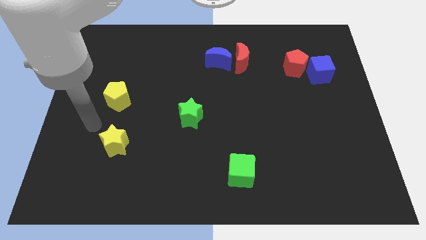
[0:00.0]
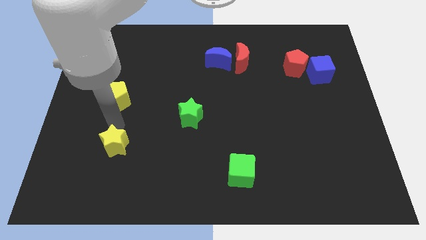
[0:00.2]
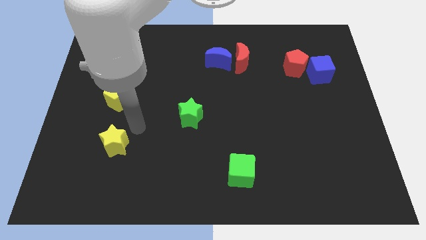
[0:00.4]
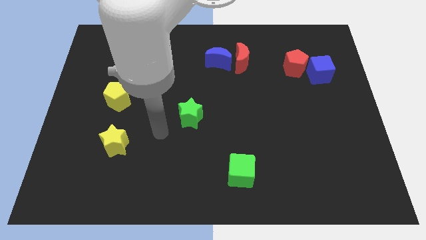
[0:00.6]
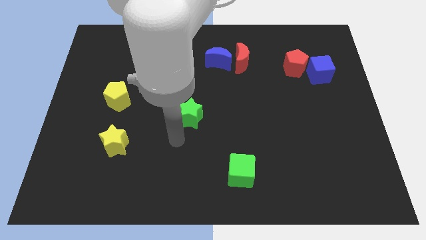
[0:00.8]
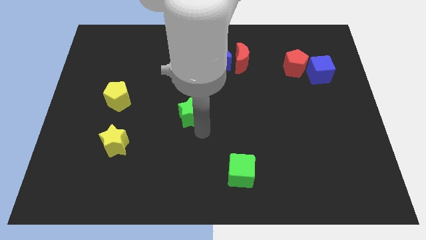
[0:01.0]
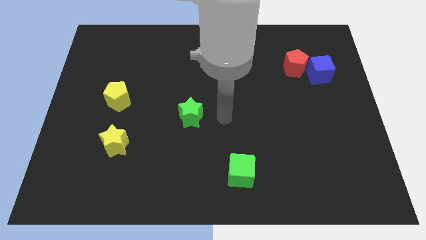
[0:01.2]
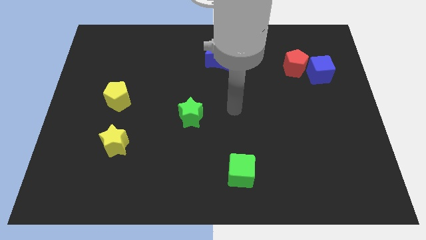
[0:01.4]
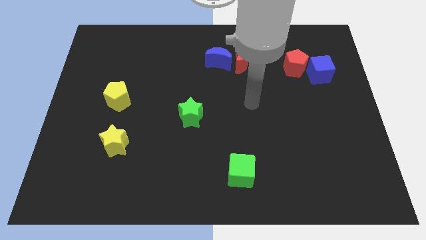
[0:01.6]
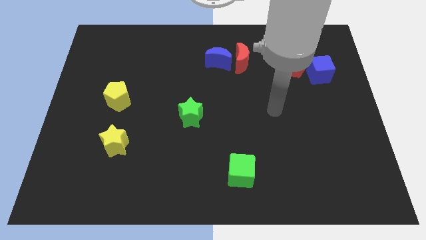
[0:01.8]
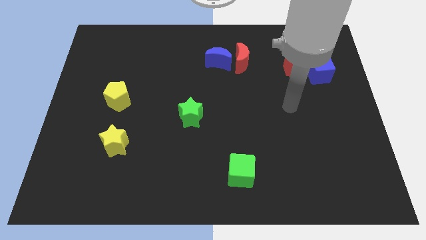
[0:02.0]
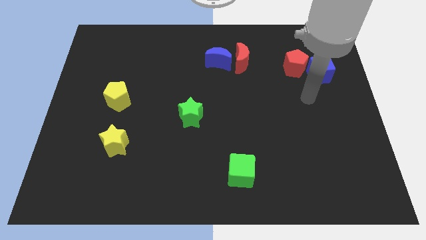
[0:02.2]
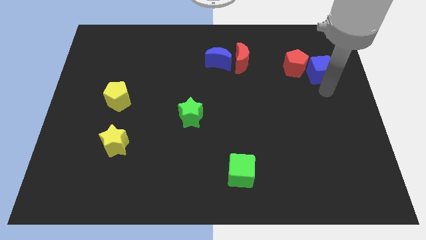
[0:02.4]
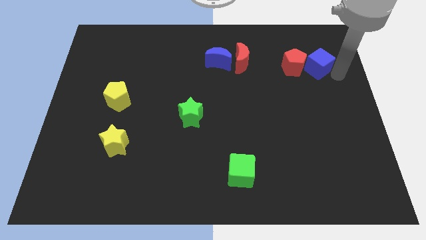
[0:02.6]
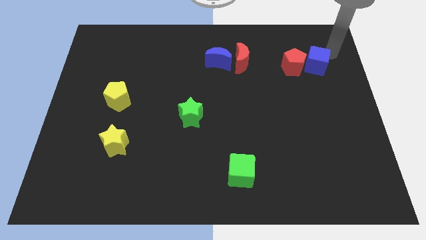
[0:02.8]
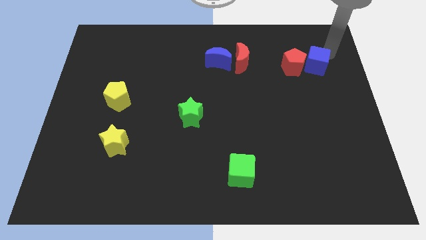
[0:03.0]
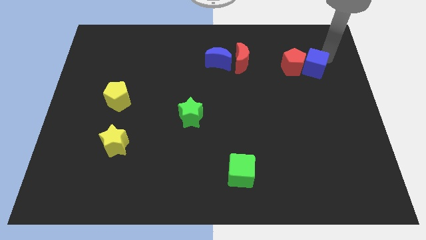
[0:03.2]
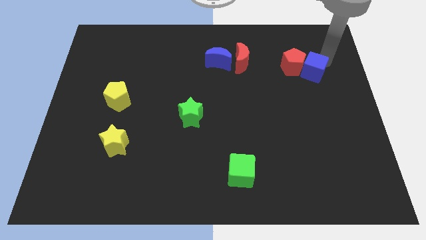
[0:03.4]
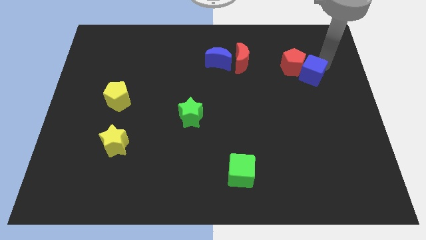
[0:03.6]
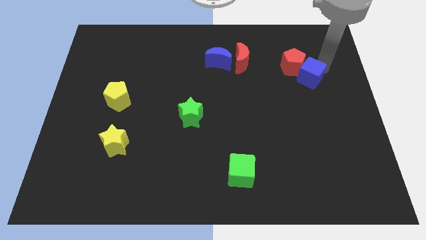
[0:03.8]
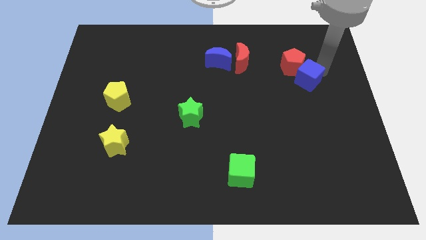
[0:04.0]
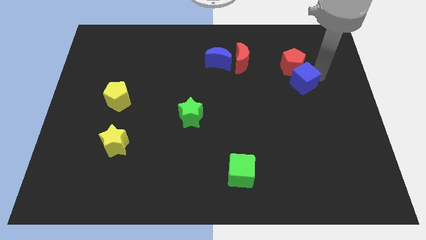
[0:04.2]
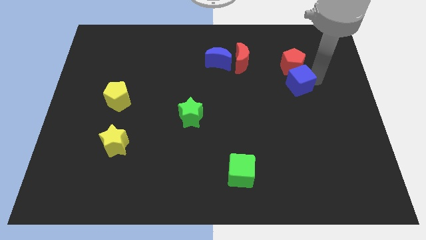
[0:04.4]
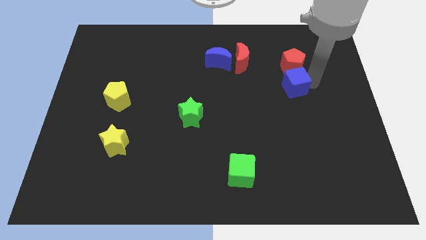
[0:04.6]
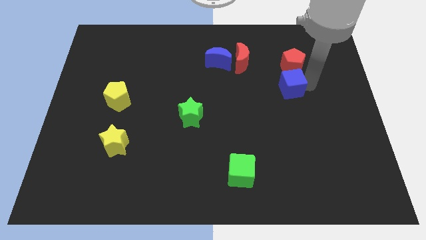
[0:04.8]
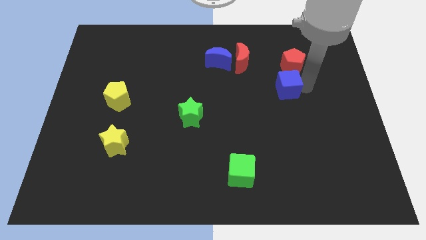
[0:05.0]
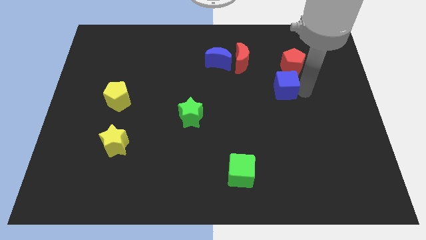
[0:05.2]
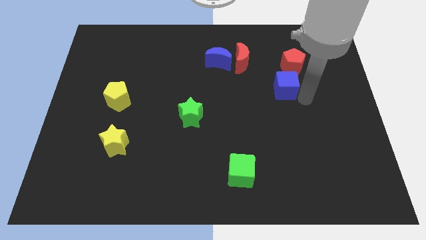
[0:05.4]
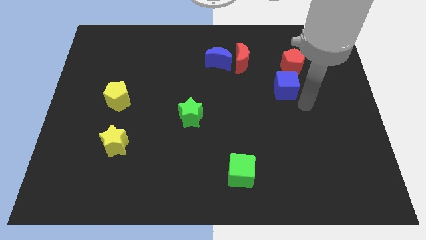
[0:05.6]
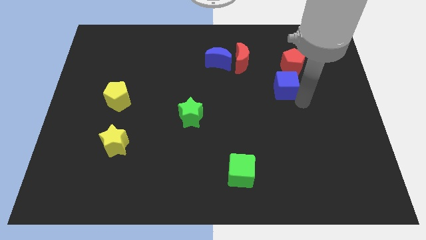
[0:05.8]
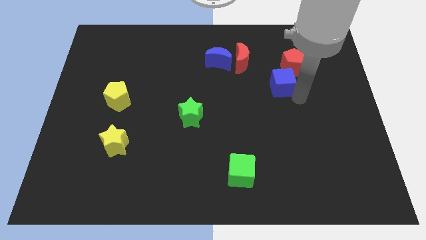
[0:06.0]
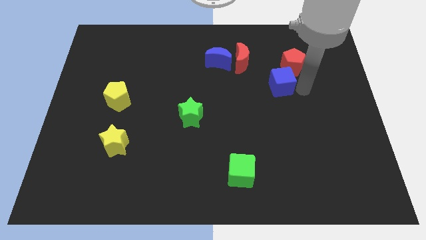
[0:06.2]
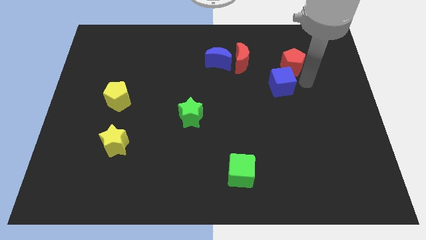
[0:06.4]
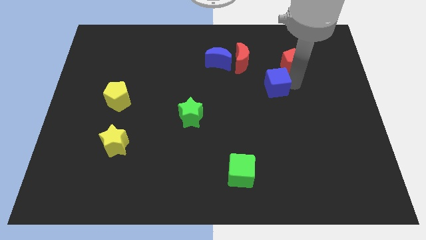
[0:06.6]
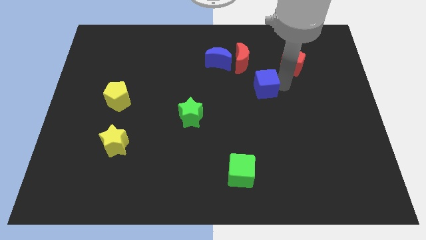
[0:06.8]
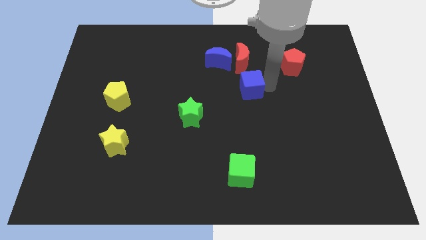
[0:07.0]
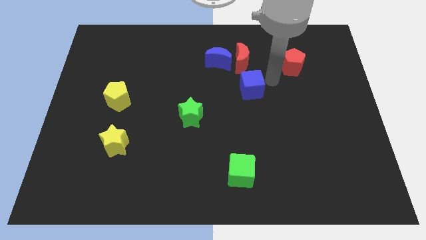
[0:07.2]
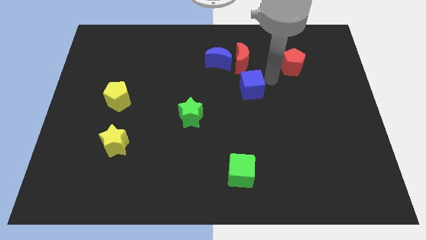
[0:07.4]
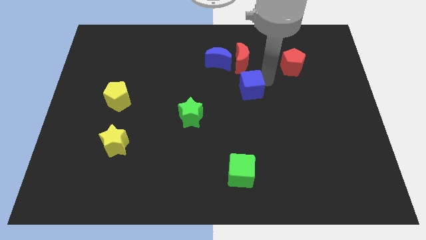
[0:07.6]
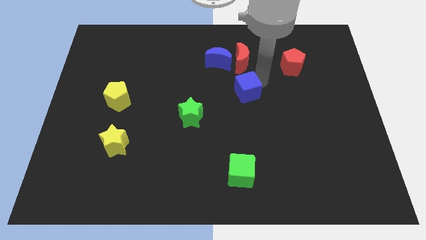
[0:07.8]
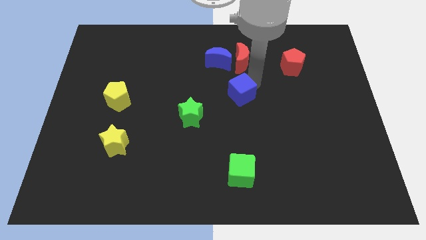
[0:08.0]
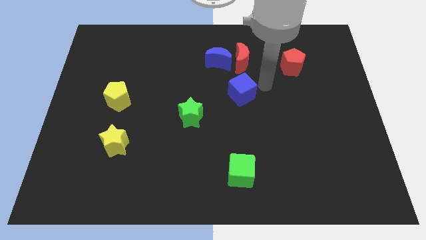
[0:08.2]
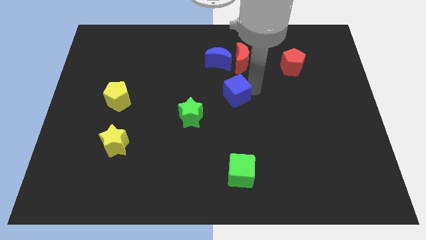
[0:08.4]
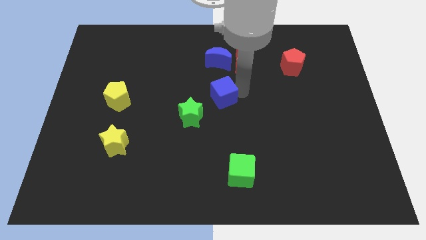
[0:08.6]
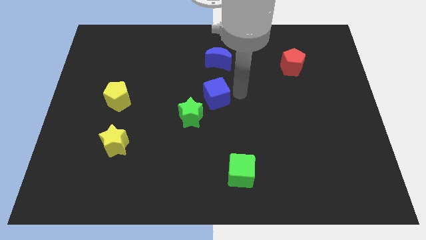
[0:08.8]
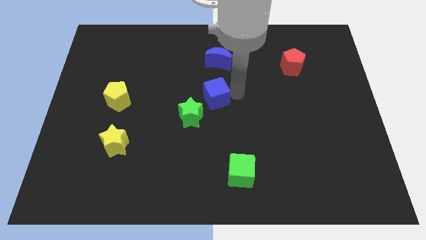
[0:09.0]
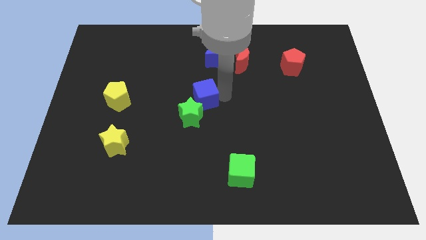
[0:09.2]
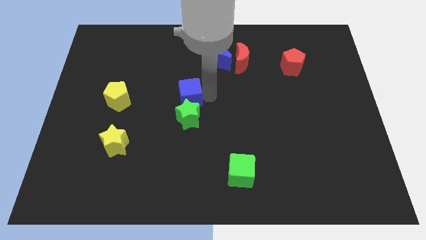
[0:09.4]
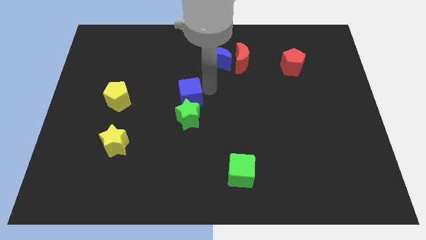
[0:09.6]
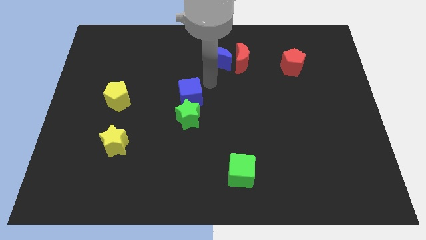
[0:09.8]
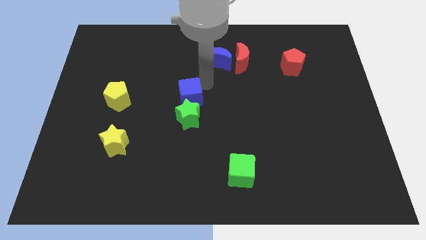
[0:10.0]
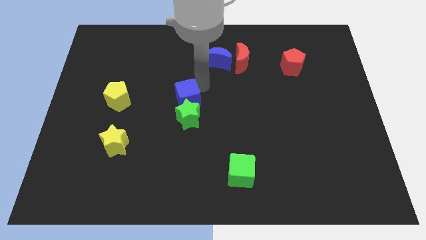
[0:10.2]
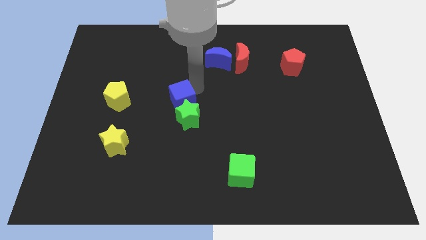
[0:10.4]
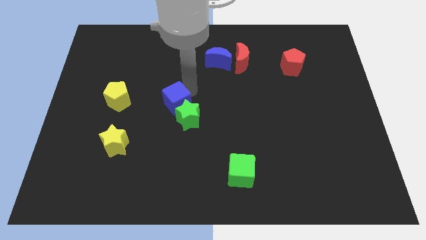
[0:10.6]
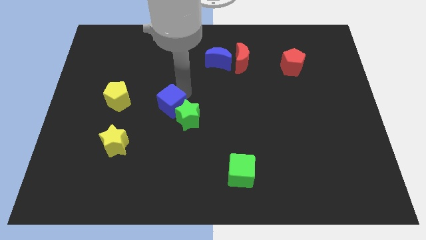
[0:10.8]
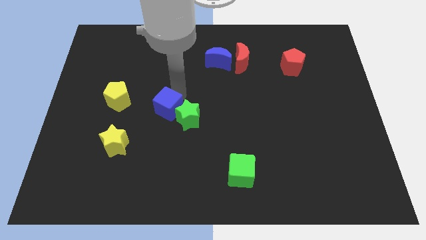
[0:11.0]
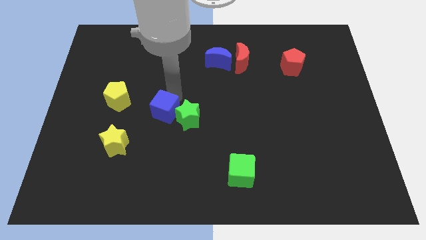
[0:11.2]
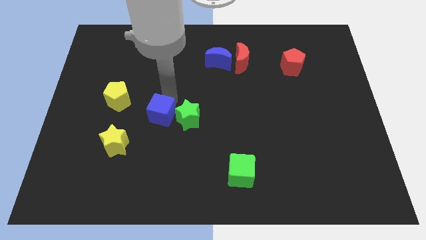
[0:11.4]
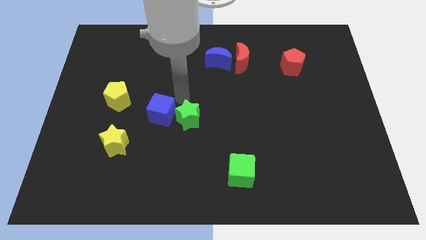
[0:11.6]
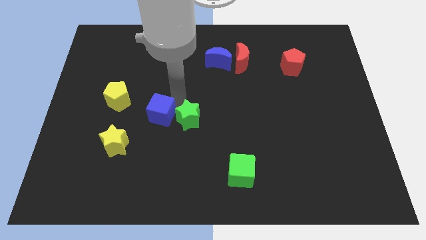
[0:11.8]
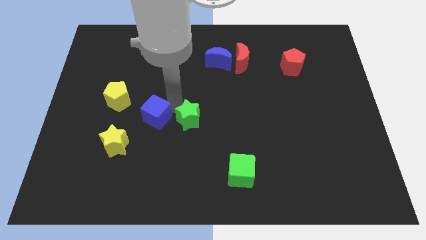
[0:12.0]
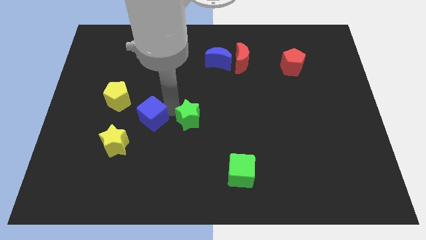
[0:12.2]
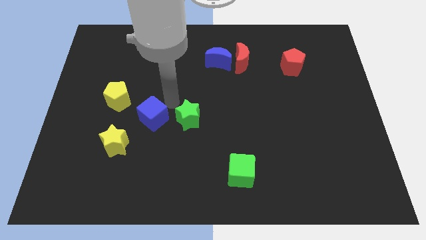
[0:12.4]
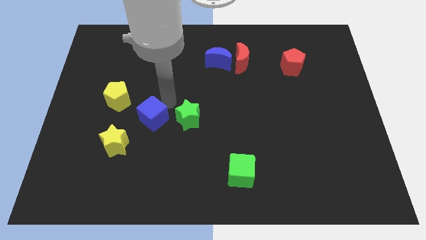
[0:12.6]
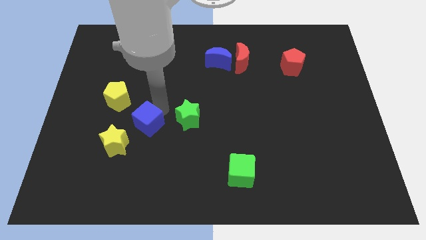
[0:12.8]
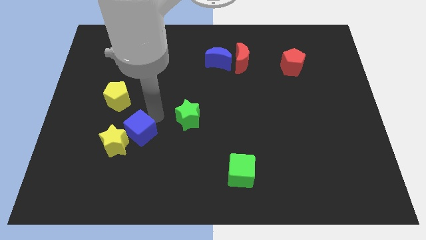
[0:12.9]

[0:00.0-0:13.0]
put the blue cube close to the yellow star

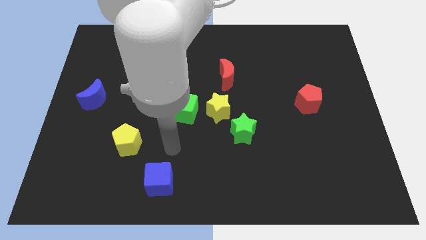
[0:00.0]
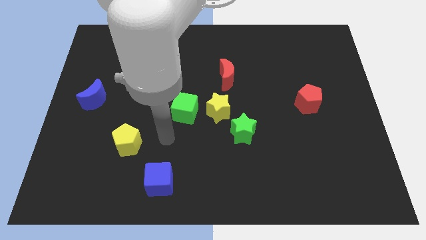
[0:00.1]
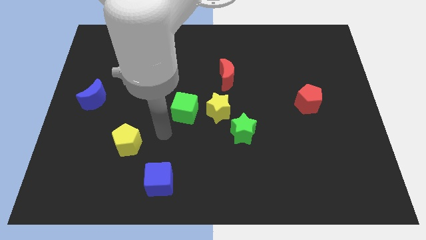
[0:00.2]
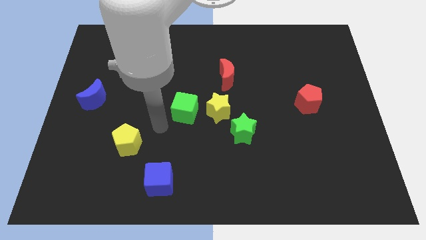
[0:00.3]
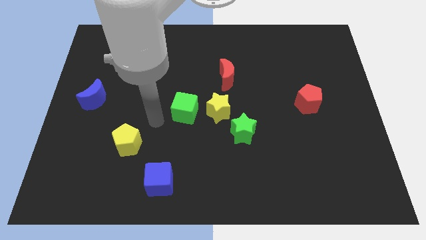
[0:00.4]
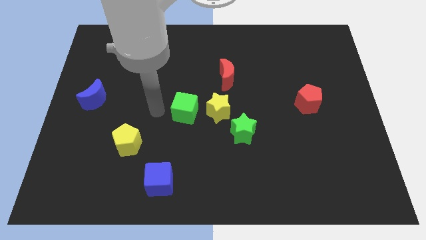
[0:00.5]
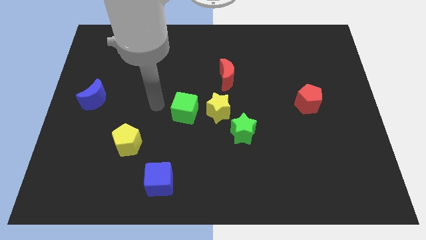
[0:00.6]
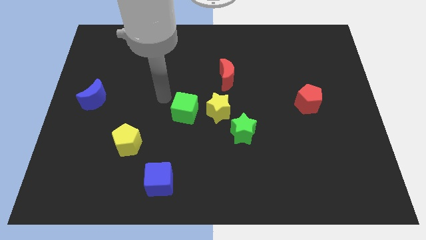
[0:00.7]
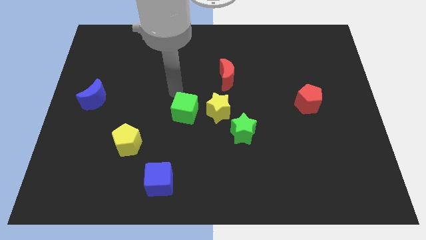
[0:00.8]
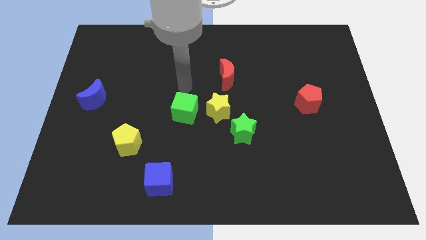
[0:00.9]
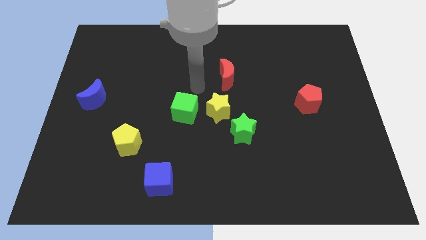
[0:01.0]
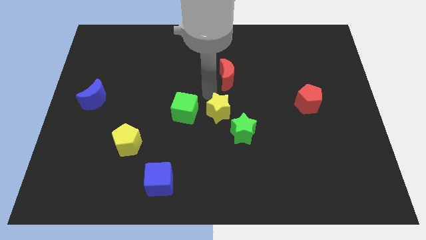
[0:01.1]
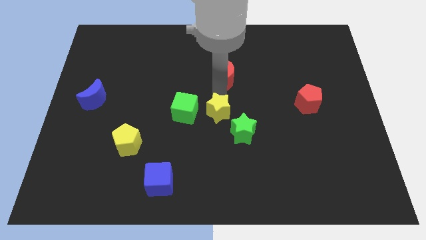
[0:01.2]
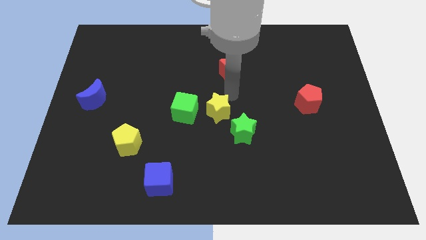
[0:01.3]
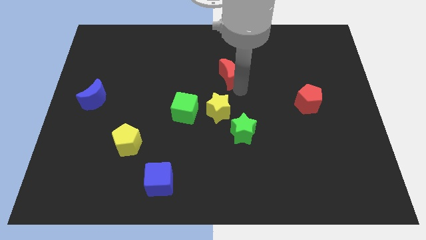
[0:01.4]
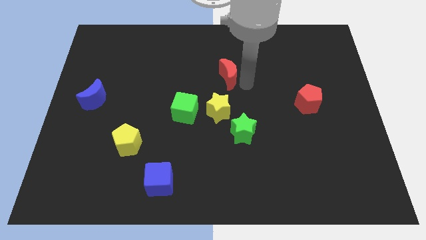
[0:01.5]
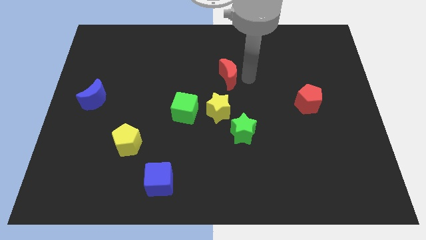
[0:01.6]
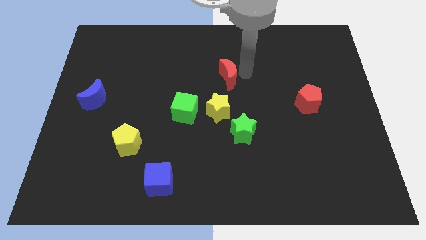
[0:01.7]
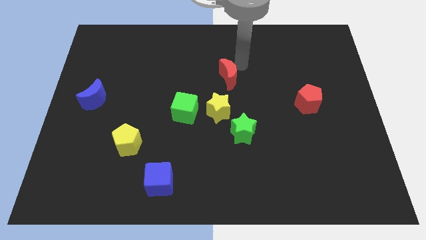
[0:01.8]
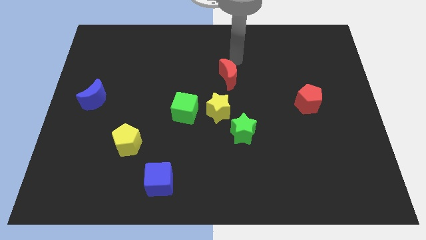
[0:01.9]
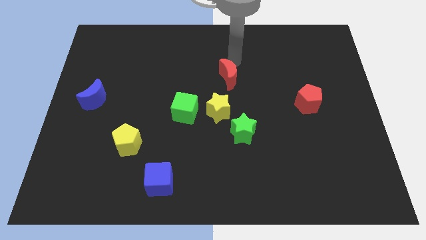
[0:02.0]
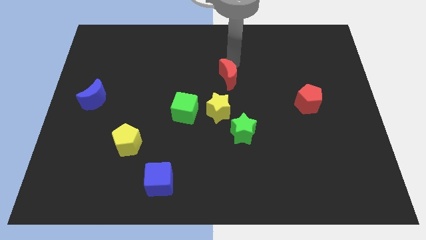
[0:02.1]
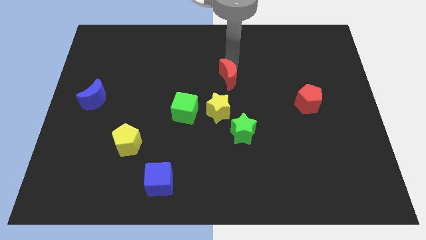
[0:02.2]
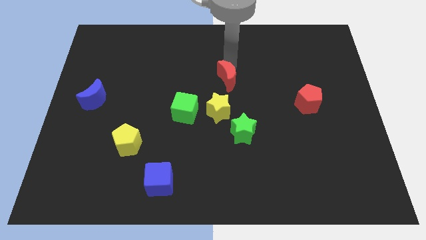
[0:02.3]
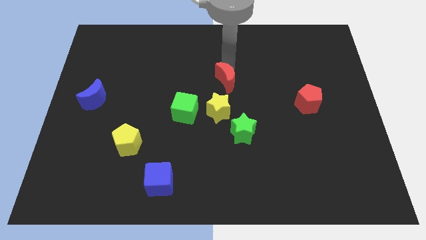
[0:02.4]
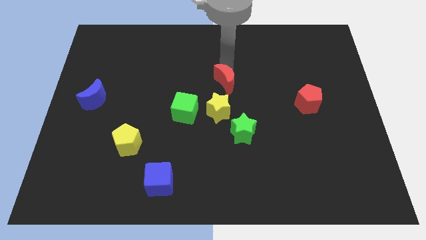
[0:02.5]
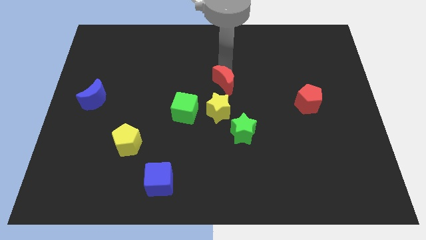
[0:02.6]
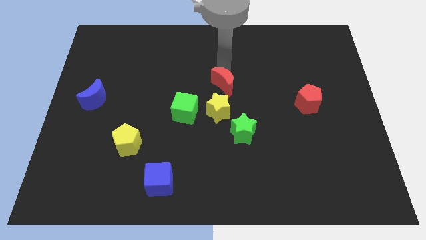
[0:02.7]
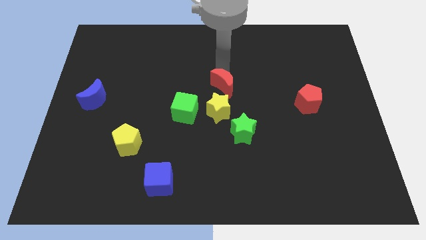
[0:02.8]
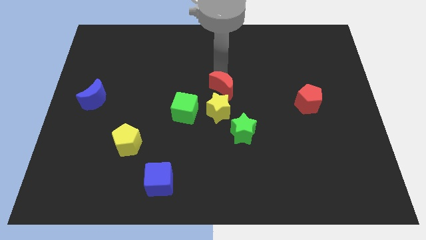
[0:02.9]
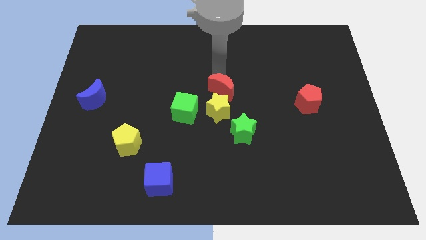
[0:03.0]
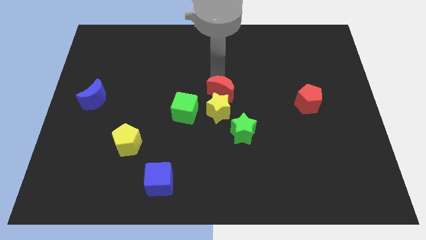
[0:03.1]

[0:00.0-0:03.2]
push the red moon towards the yellow star
